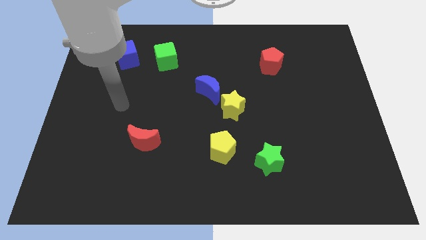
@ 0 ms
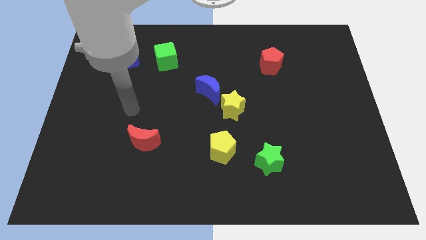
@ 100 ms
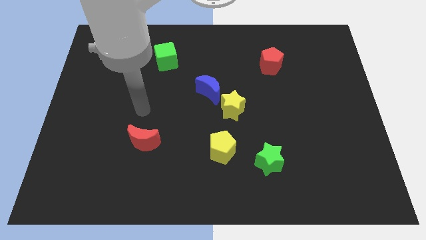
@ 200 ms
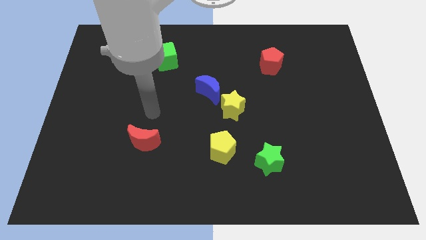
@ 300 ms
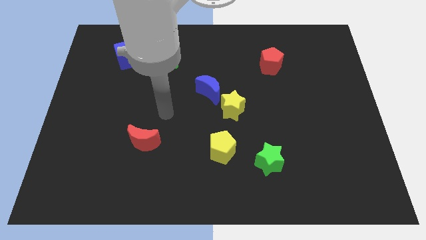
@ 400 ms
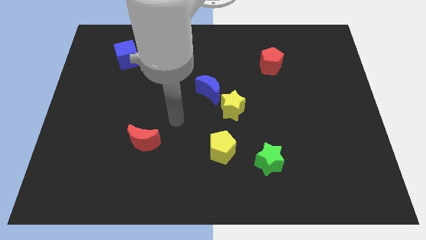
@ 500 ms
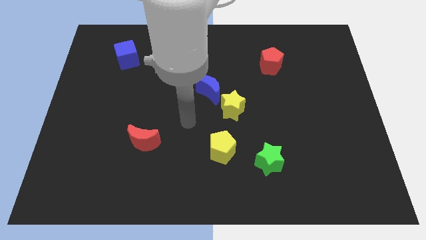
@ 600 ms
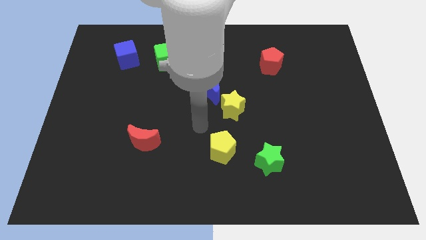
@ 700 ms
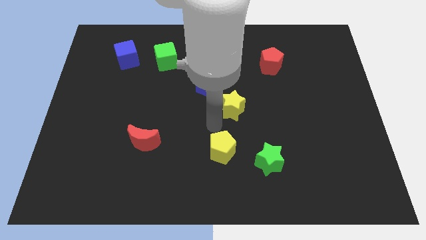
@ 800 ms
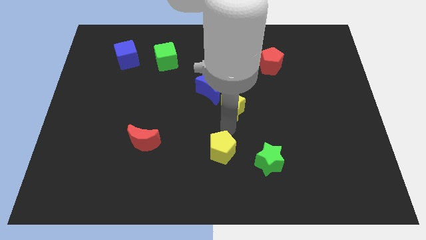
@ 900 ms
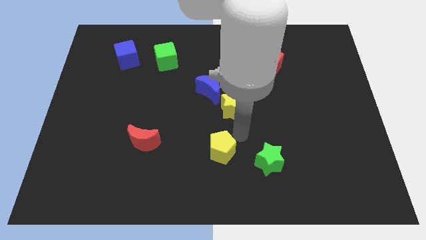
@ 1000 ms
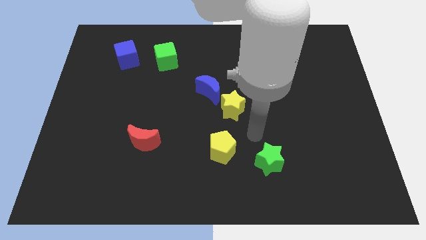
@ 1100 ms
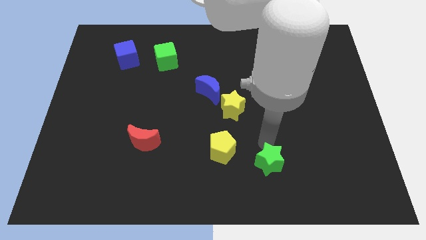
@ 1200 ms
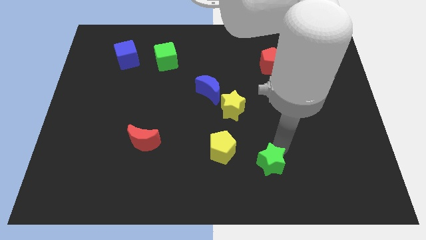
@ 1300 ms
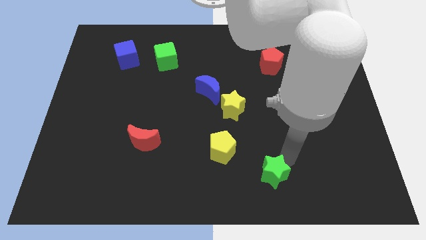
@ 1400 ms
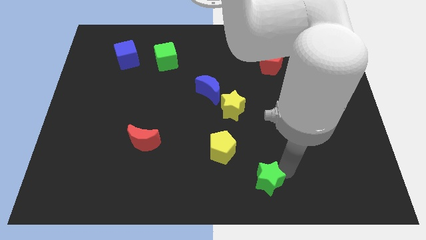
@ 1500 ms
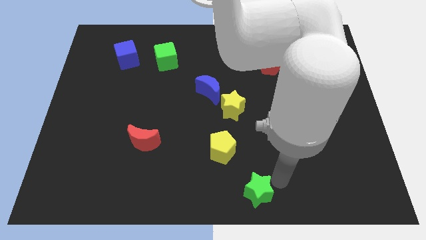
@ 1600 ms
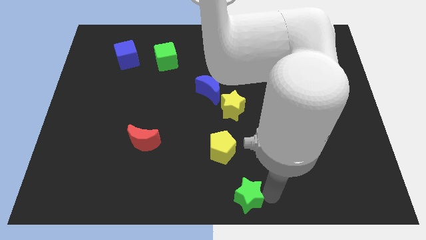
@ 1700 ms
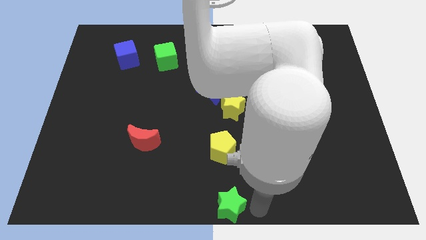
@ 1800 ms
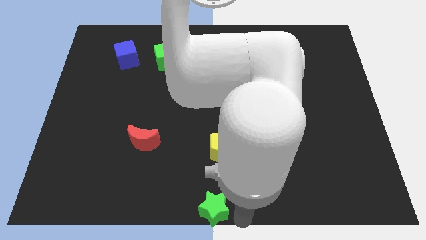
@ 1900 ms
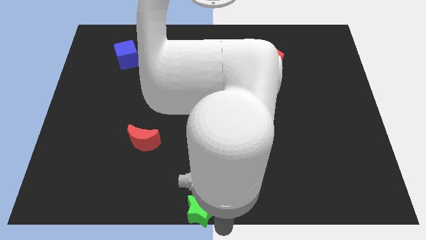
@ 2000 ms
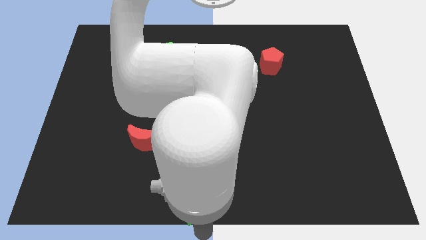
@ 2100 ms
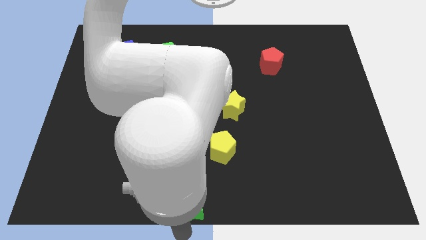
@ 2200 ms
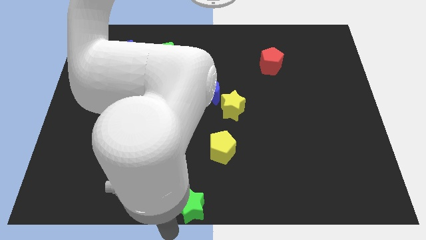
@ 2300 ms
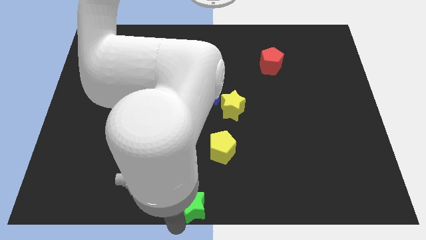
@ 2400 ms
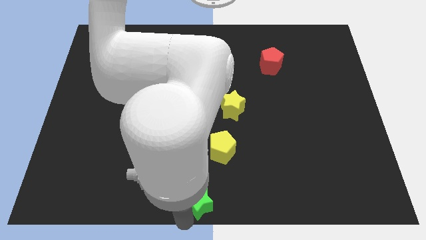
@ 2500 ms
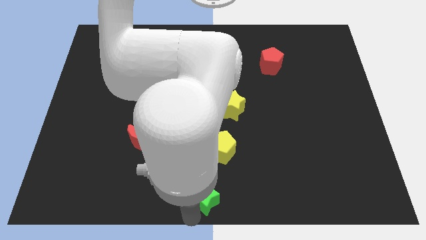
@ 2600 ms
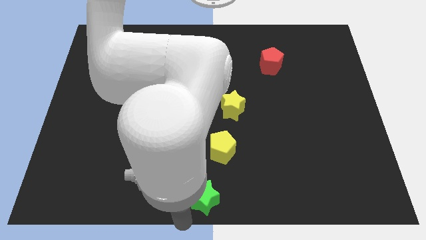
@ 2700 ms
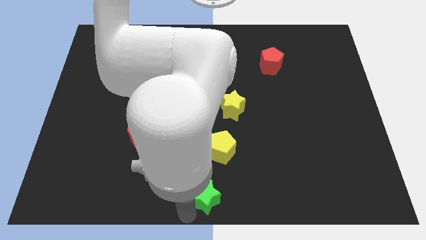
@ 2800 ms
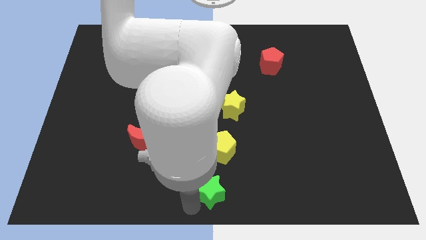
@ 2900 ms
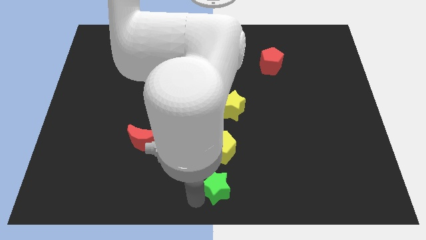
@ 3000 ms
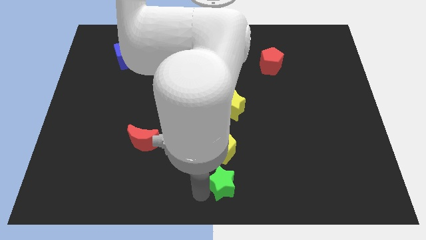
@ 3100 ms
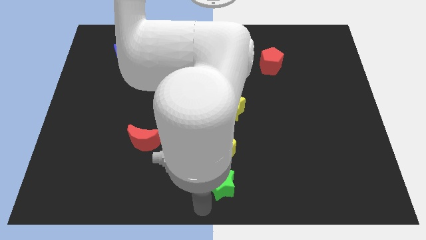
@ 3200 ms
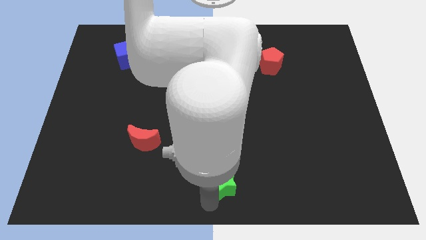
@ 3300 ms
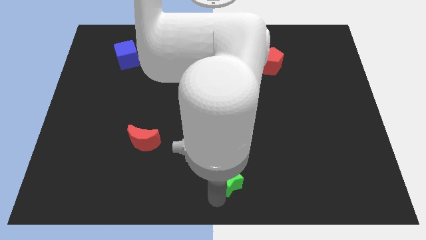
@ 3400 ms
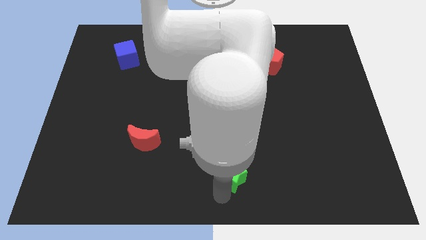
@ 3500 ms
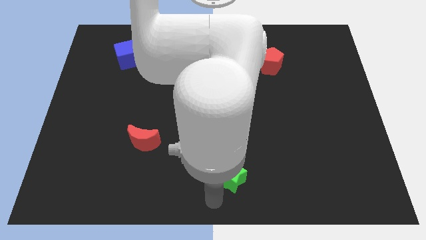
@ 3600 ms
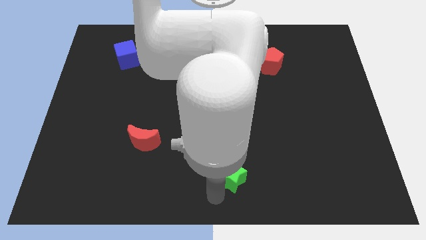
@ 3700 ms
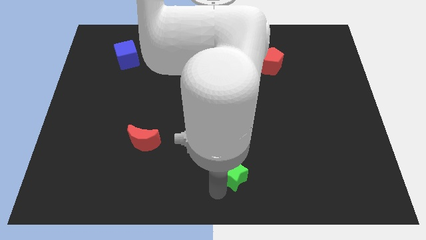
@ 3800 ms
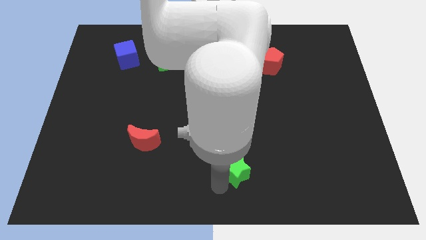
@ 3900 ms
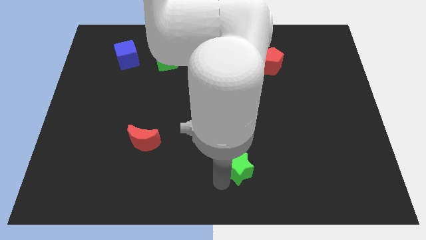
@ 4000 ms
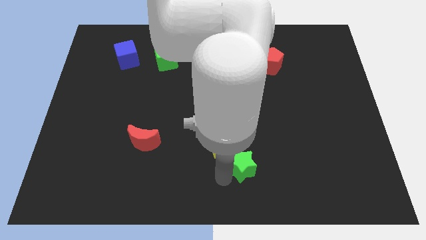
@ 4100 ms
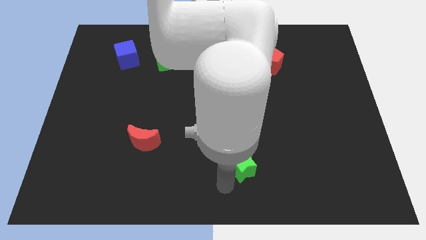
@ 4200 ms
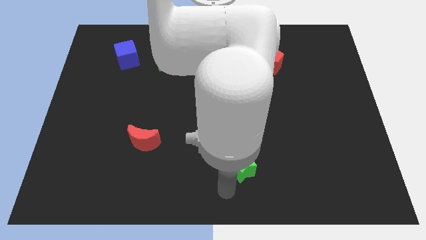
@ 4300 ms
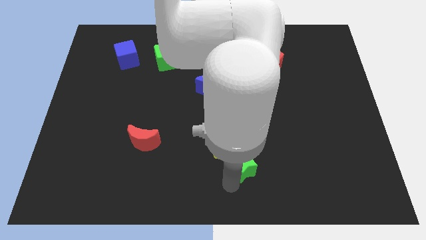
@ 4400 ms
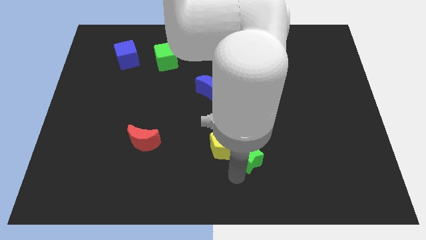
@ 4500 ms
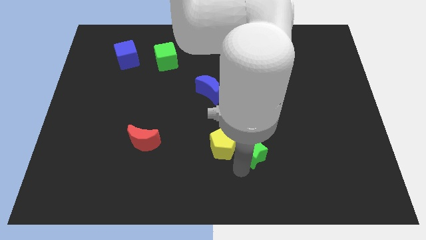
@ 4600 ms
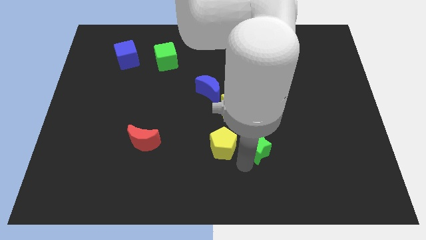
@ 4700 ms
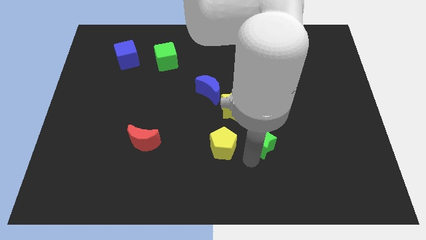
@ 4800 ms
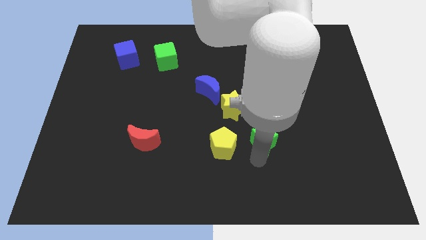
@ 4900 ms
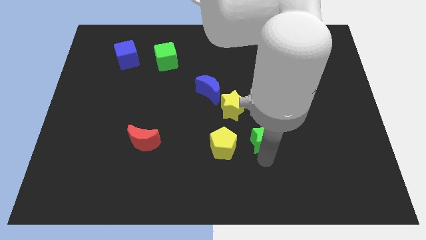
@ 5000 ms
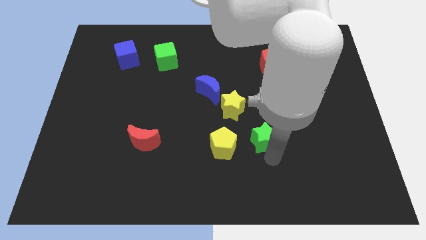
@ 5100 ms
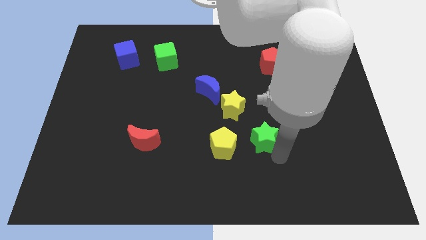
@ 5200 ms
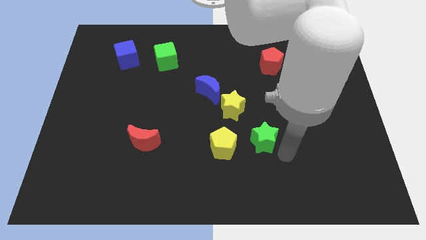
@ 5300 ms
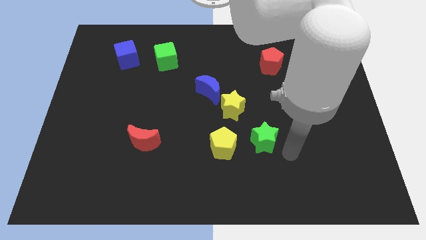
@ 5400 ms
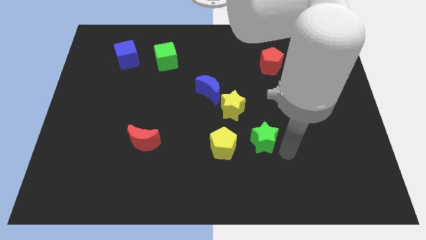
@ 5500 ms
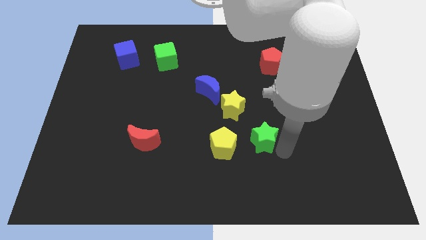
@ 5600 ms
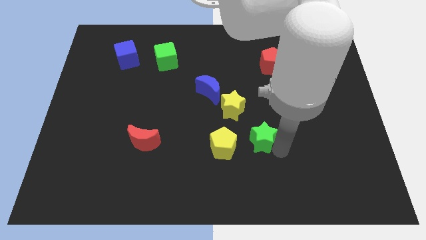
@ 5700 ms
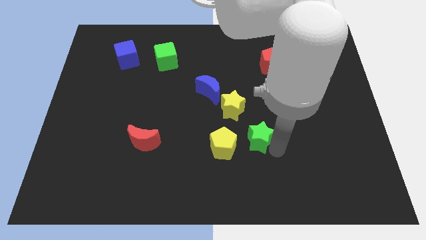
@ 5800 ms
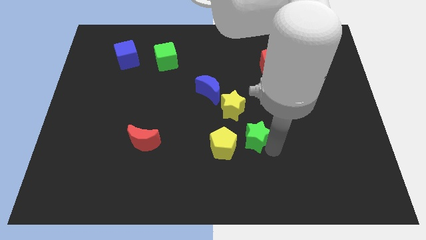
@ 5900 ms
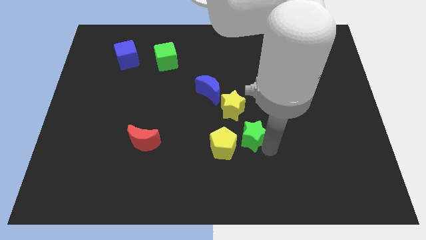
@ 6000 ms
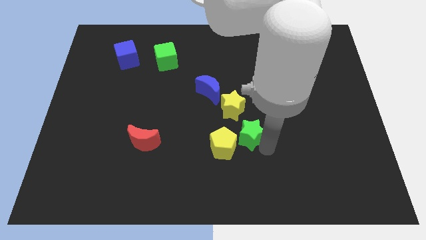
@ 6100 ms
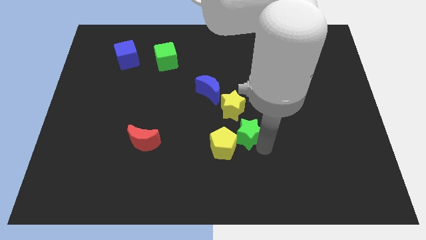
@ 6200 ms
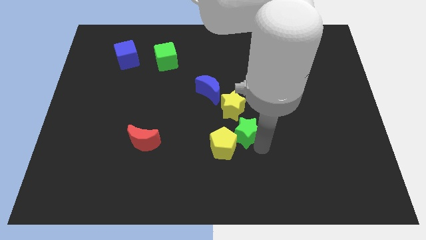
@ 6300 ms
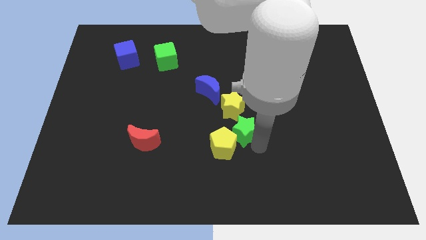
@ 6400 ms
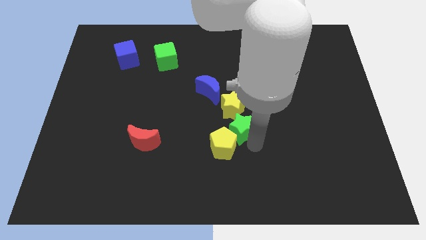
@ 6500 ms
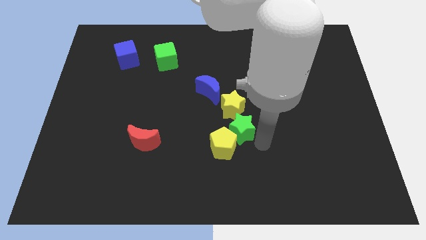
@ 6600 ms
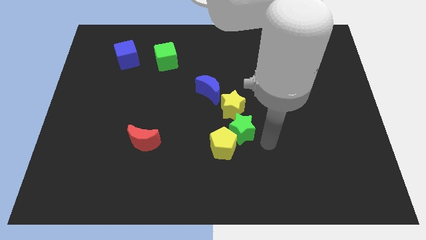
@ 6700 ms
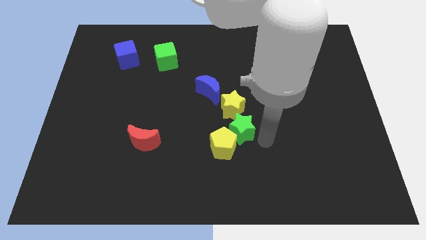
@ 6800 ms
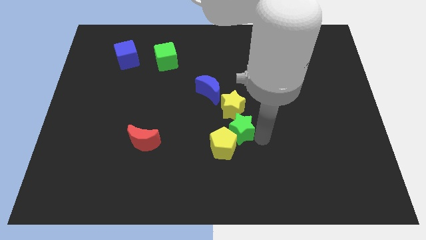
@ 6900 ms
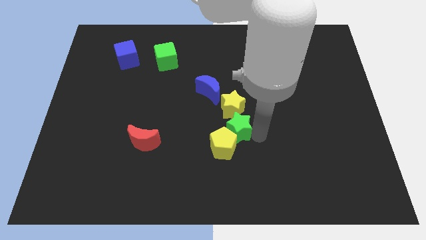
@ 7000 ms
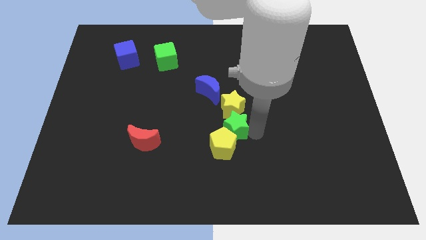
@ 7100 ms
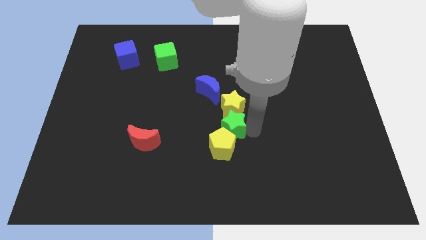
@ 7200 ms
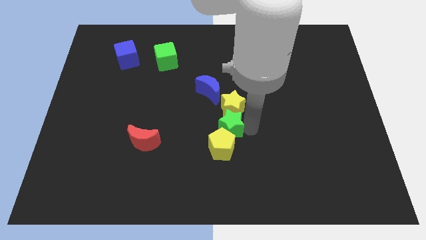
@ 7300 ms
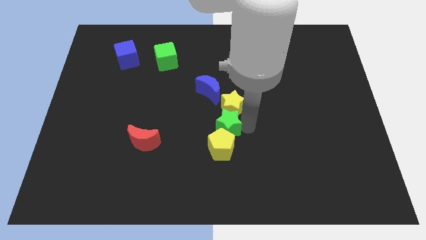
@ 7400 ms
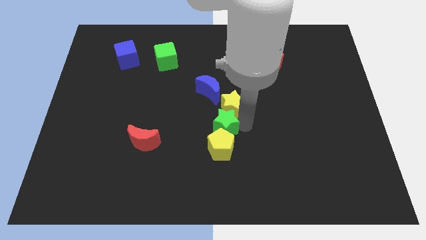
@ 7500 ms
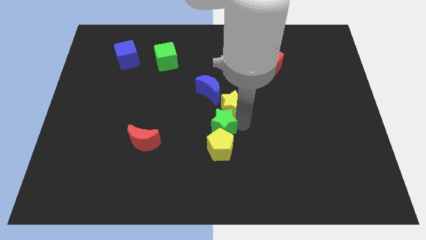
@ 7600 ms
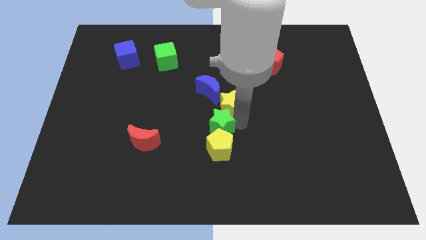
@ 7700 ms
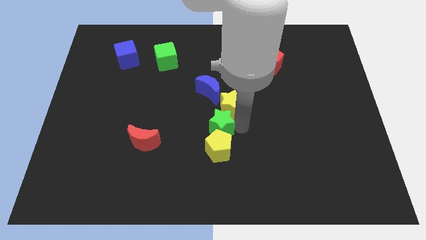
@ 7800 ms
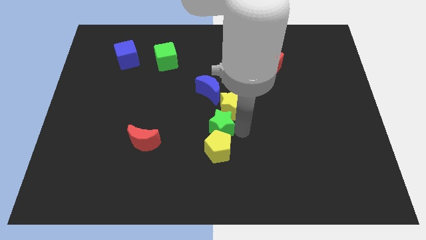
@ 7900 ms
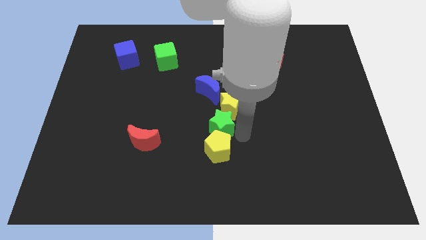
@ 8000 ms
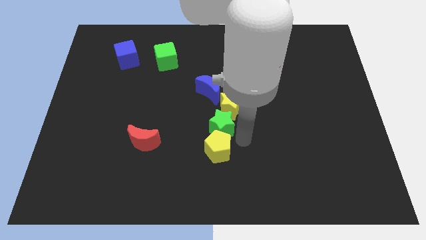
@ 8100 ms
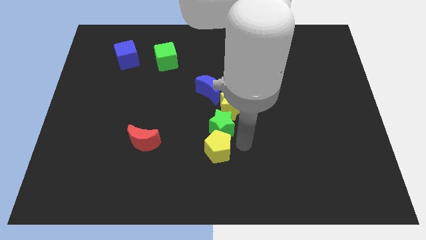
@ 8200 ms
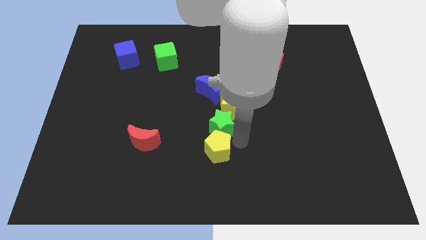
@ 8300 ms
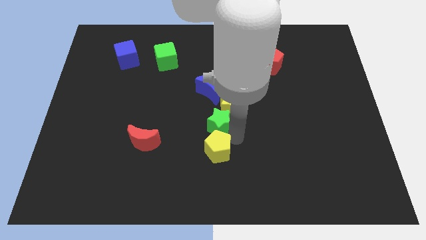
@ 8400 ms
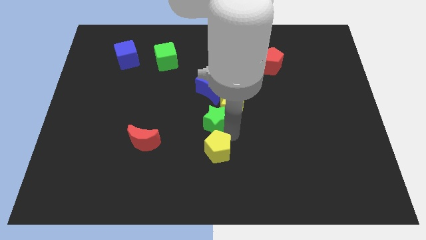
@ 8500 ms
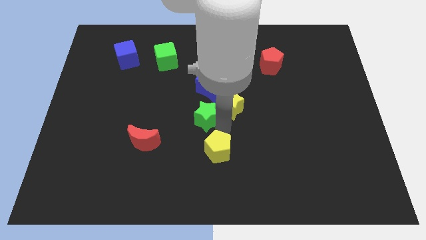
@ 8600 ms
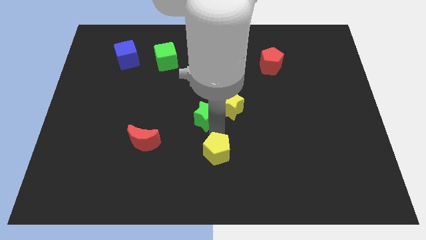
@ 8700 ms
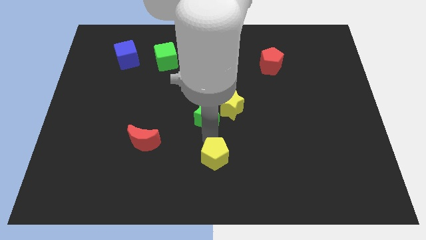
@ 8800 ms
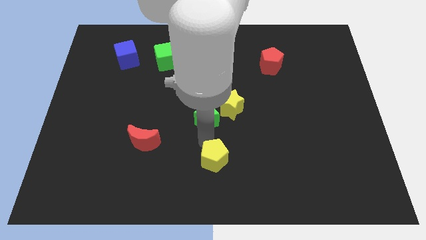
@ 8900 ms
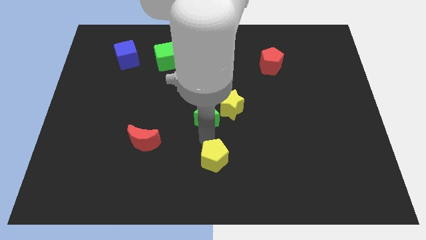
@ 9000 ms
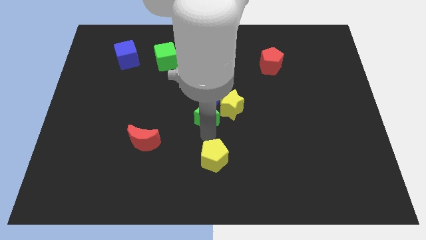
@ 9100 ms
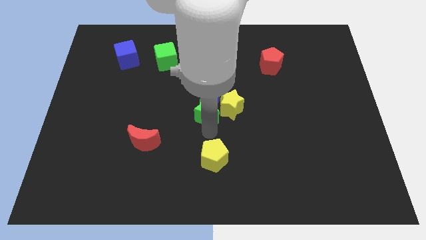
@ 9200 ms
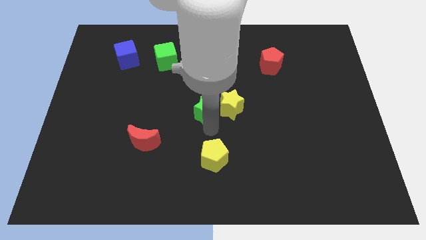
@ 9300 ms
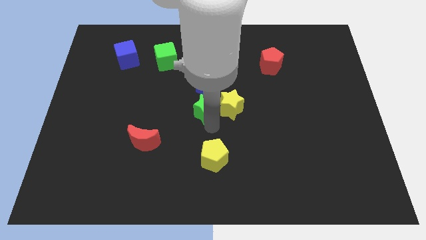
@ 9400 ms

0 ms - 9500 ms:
slide the green star towards the blue moon
